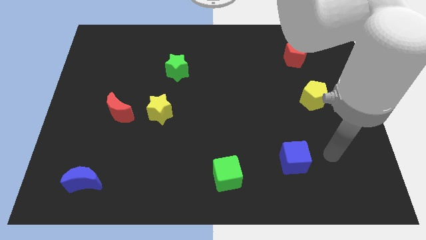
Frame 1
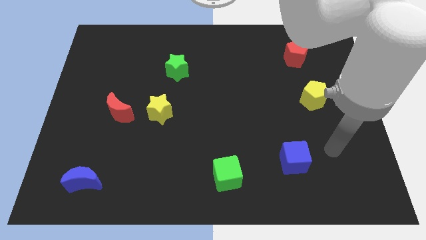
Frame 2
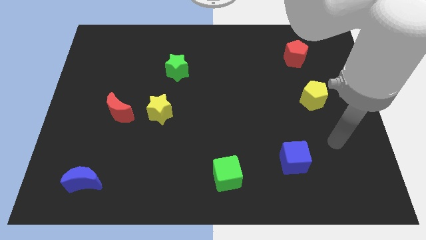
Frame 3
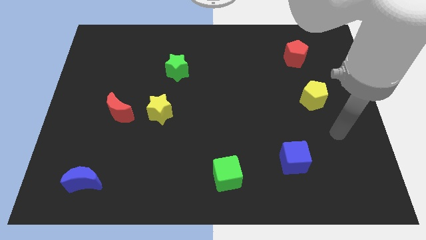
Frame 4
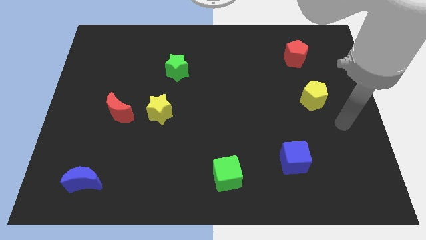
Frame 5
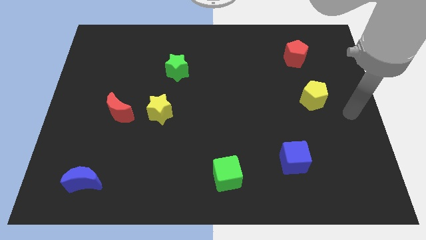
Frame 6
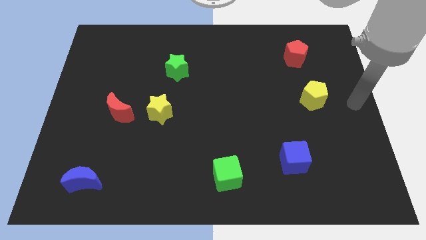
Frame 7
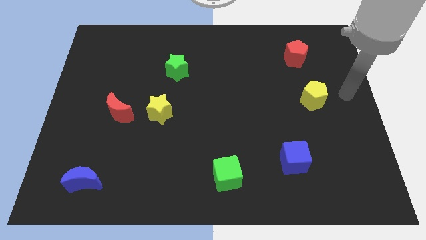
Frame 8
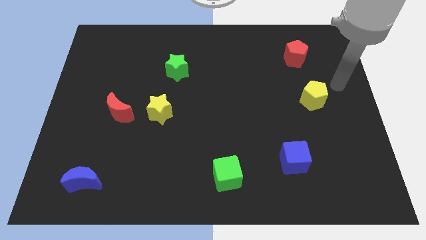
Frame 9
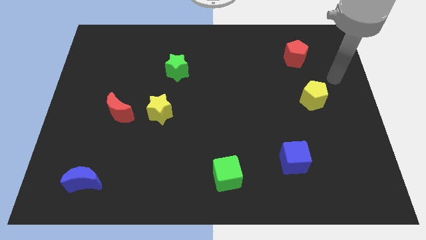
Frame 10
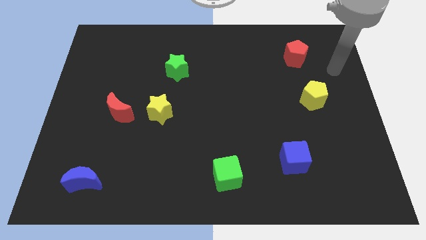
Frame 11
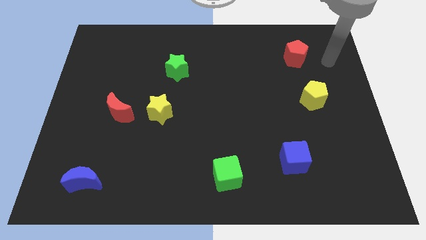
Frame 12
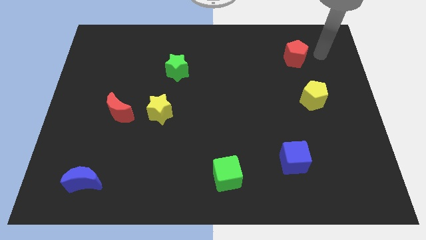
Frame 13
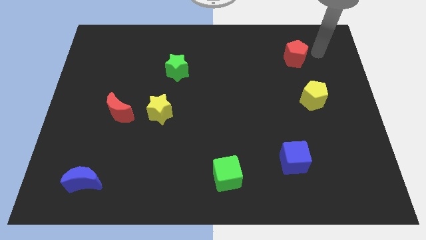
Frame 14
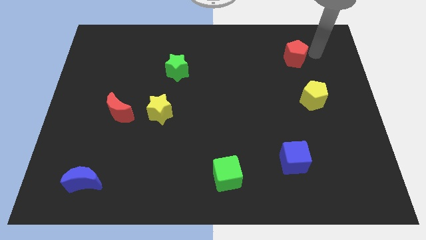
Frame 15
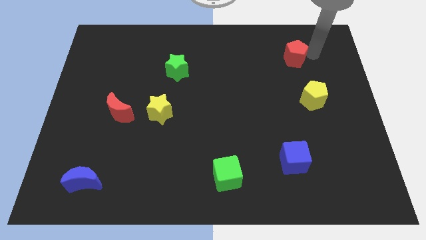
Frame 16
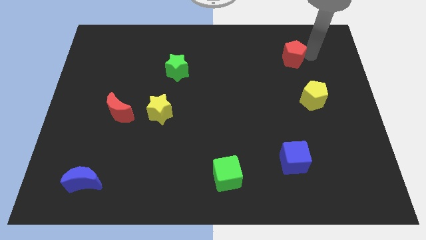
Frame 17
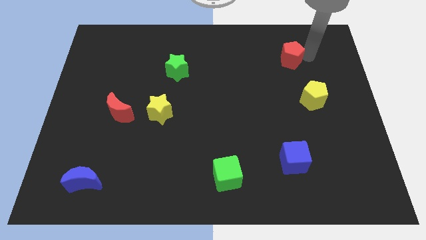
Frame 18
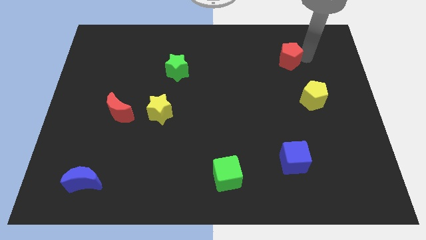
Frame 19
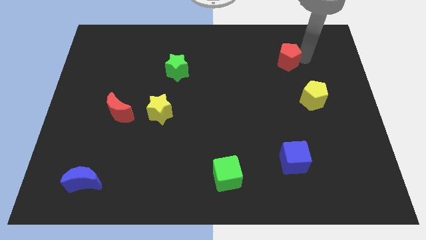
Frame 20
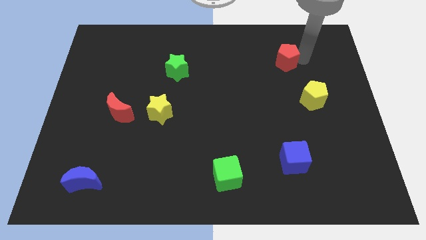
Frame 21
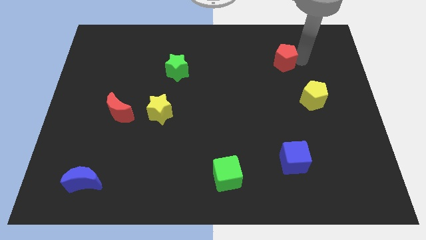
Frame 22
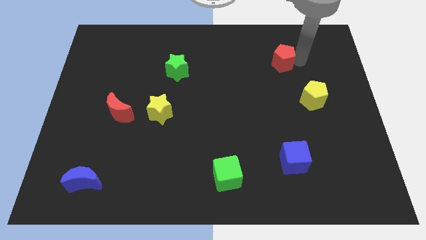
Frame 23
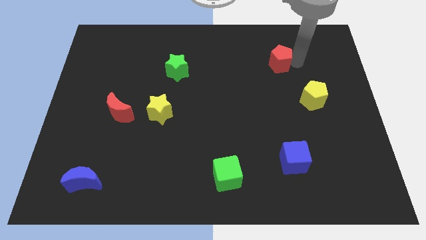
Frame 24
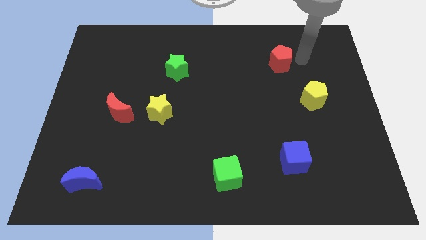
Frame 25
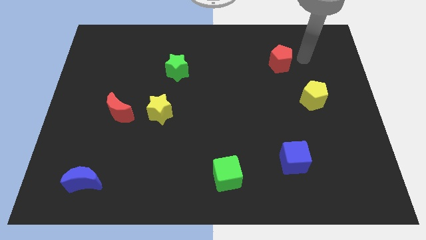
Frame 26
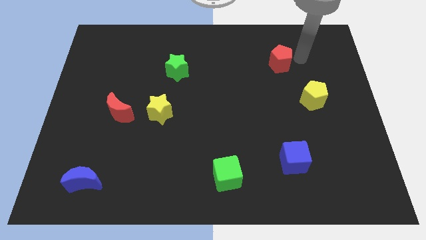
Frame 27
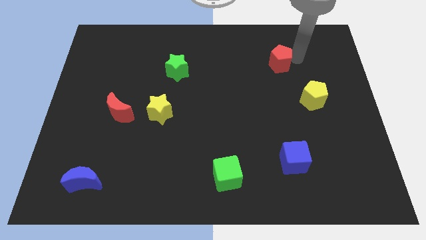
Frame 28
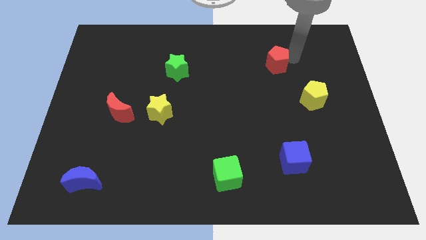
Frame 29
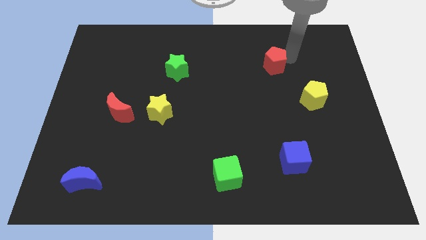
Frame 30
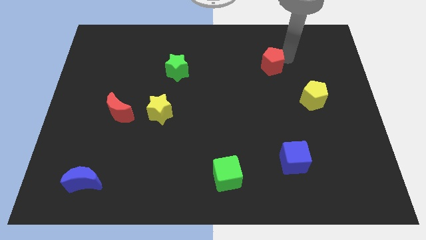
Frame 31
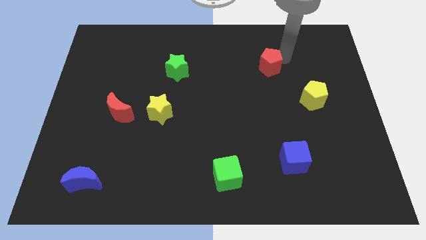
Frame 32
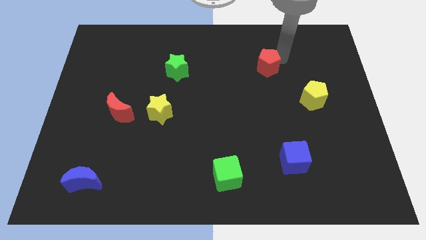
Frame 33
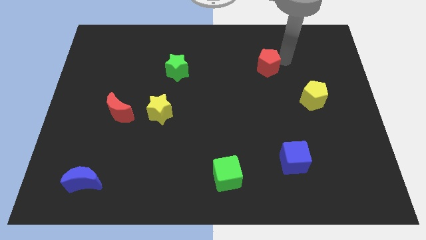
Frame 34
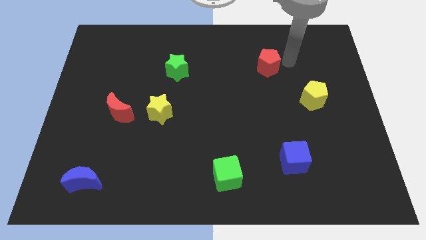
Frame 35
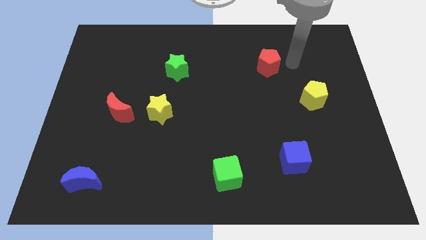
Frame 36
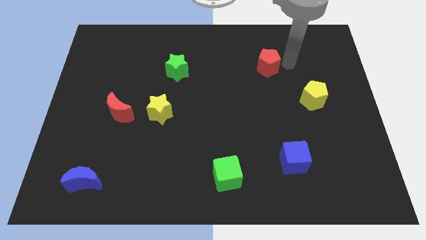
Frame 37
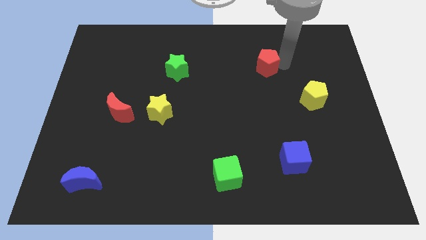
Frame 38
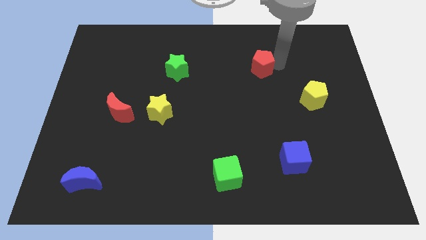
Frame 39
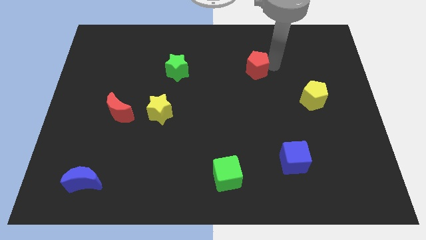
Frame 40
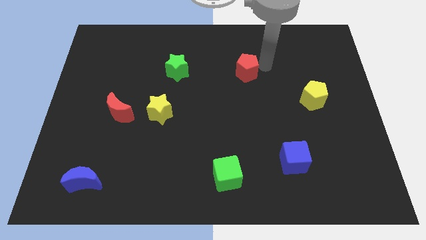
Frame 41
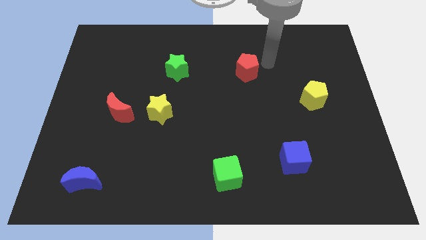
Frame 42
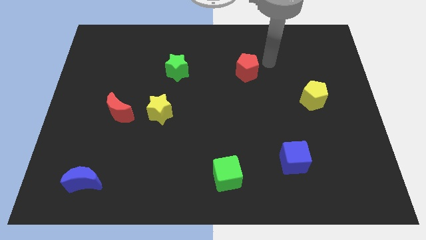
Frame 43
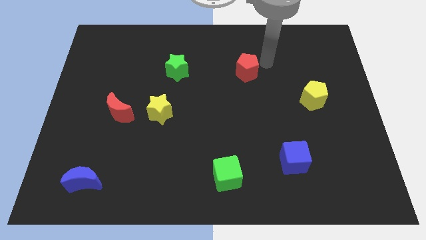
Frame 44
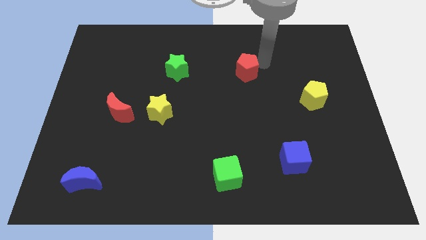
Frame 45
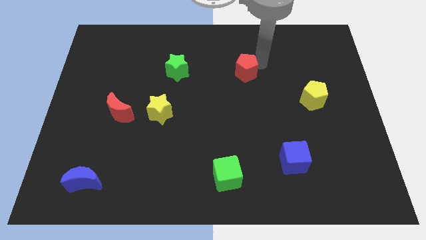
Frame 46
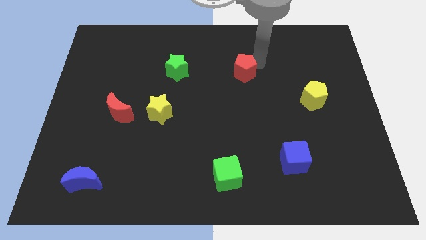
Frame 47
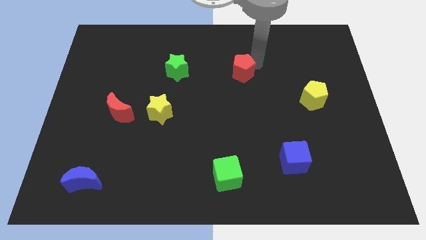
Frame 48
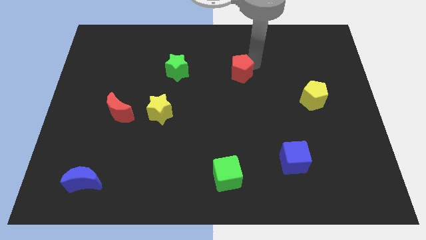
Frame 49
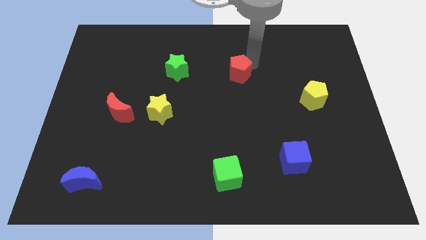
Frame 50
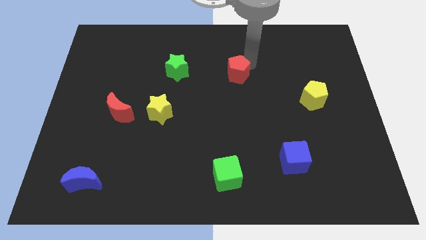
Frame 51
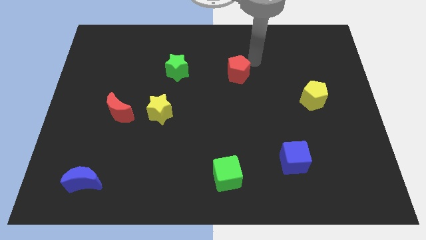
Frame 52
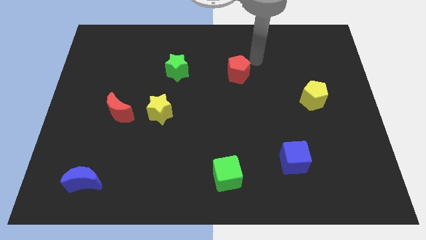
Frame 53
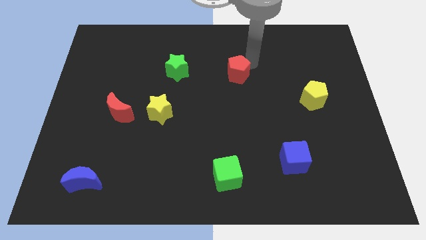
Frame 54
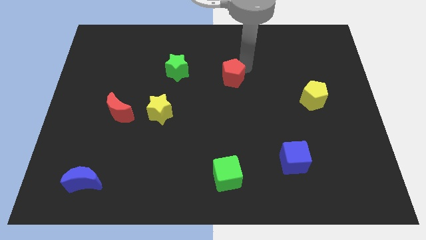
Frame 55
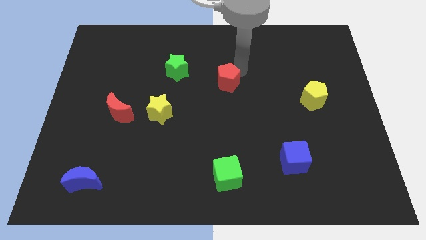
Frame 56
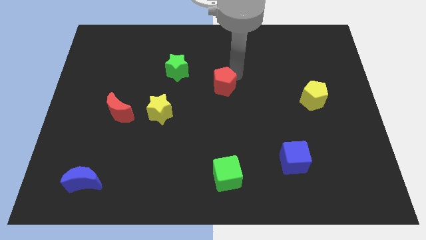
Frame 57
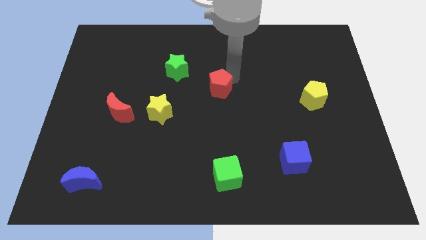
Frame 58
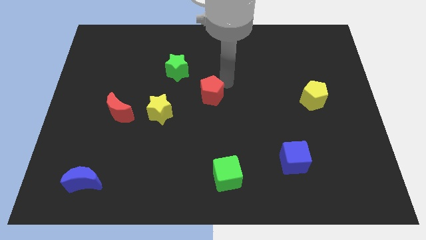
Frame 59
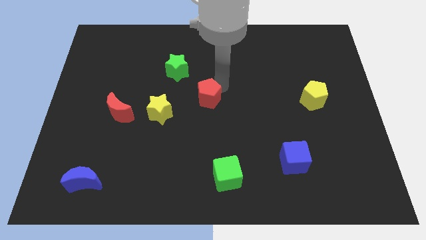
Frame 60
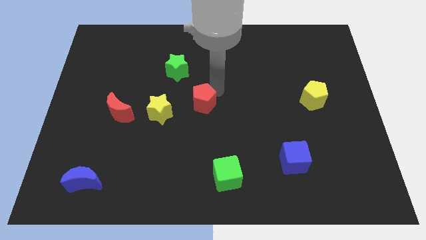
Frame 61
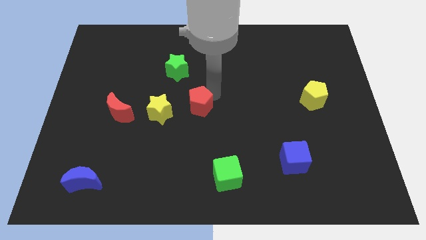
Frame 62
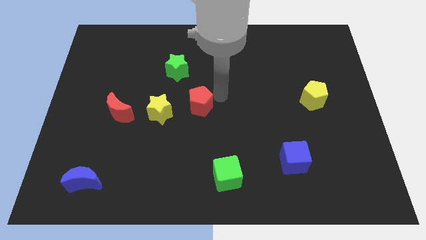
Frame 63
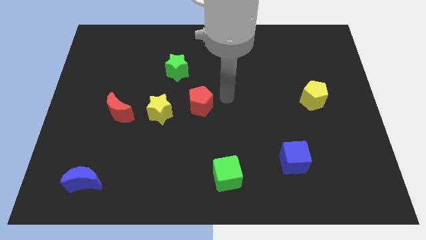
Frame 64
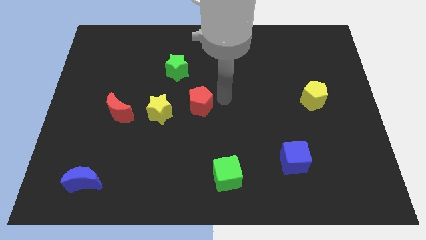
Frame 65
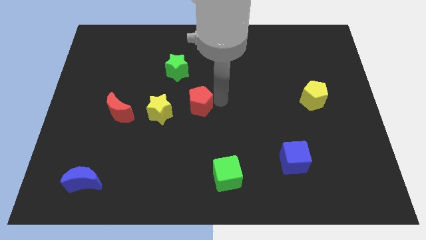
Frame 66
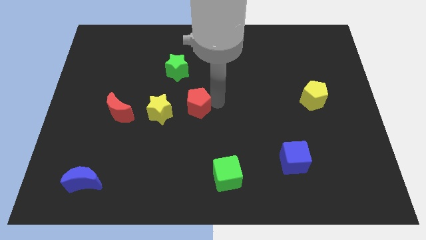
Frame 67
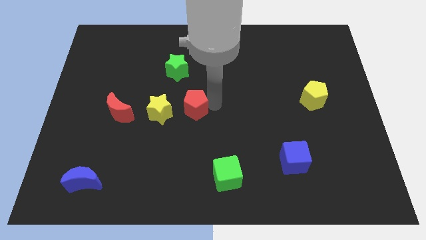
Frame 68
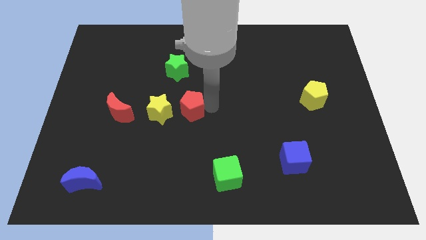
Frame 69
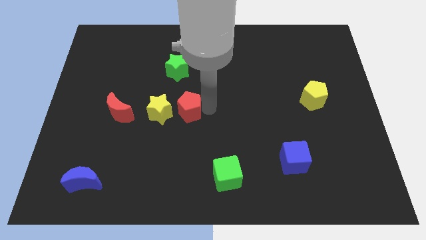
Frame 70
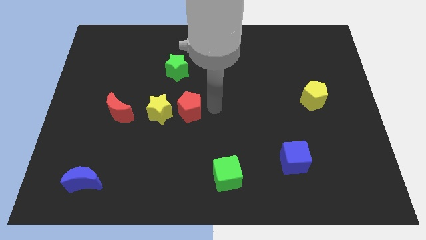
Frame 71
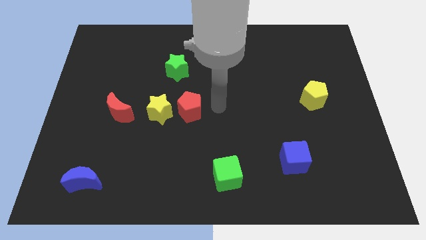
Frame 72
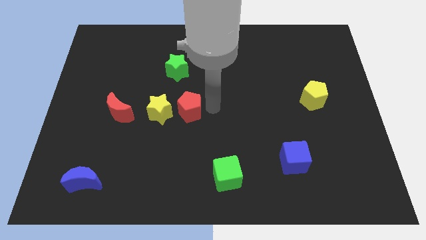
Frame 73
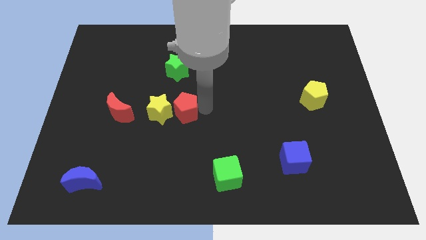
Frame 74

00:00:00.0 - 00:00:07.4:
push the red pentagon just right of the red moon
